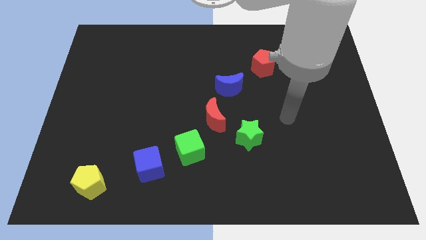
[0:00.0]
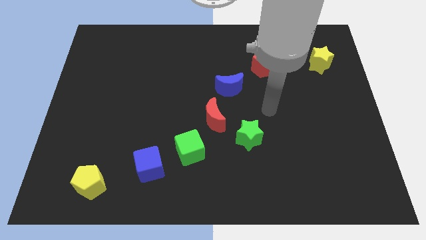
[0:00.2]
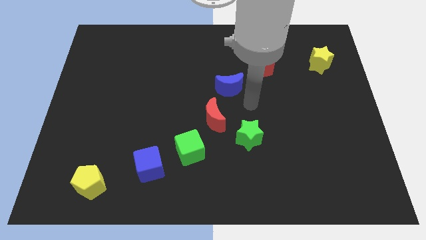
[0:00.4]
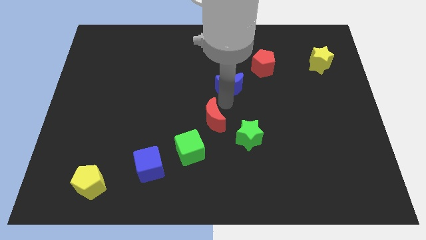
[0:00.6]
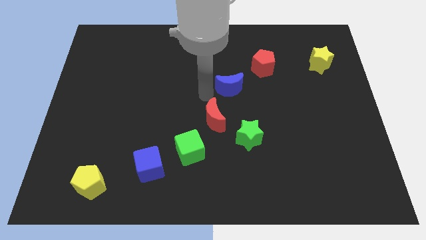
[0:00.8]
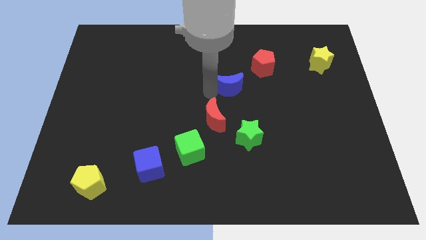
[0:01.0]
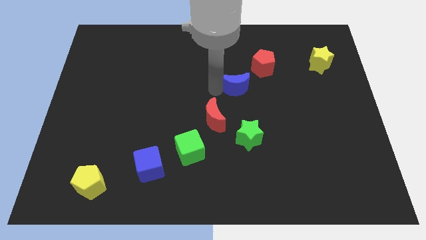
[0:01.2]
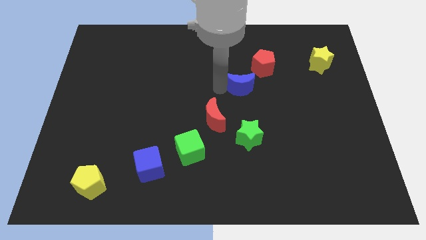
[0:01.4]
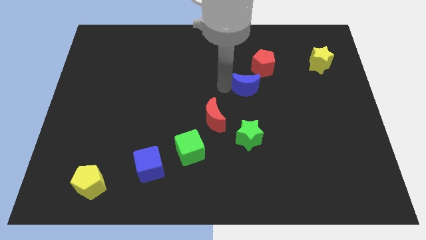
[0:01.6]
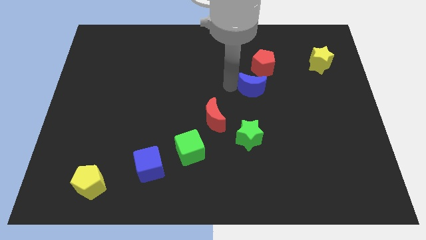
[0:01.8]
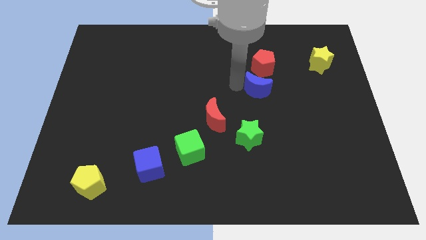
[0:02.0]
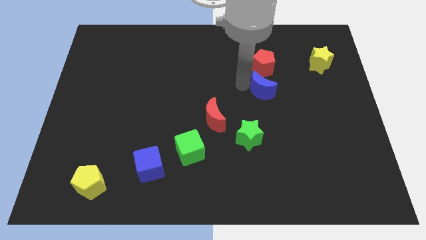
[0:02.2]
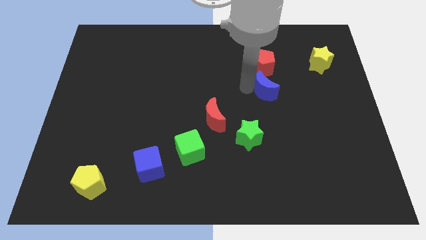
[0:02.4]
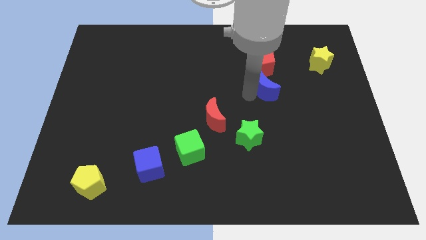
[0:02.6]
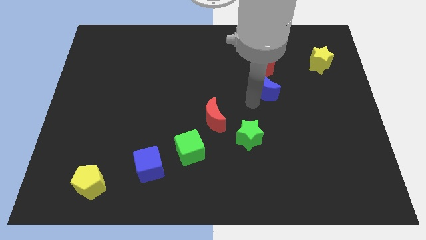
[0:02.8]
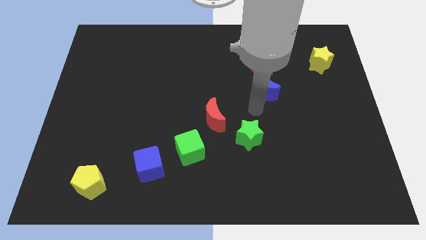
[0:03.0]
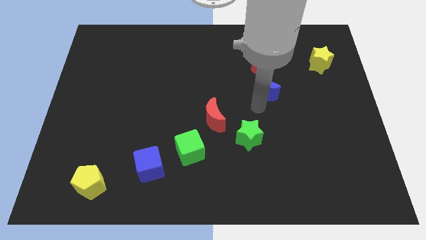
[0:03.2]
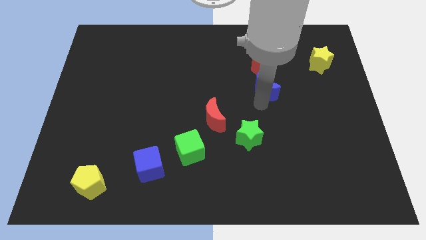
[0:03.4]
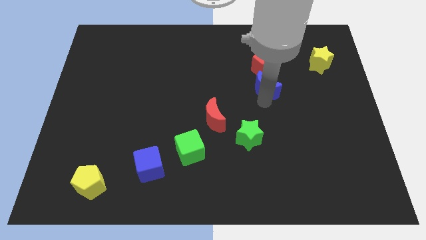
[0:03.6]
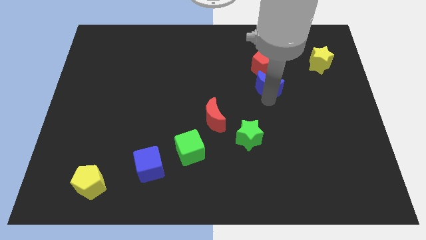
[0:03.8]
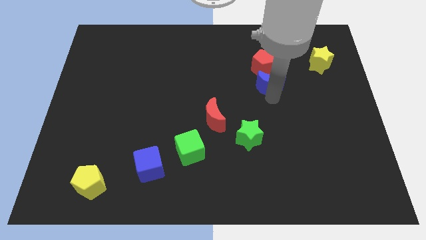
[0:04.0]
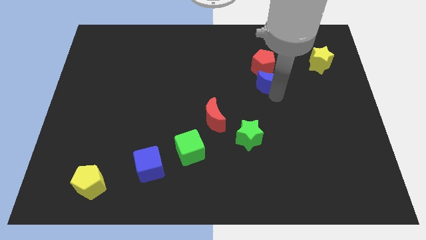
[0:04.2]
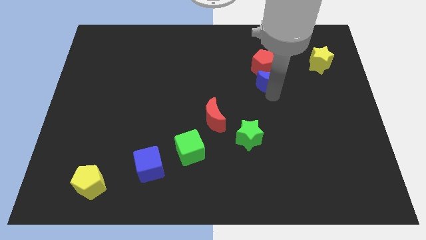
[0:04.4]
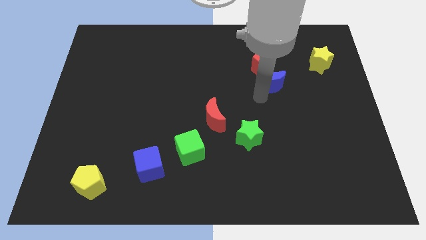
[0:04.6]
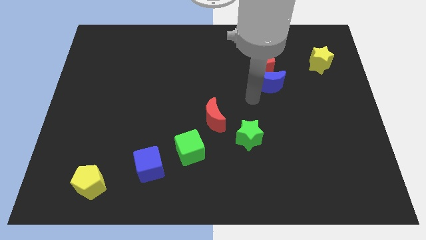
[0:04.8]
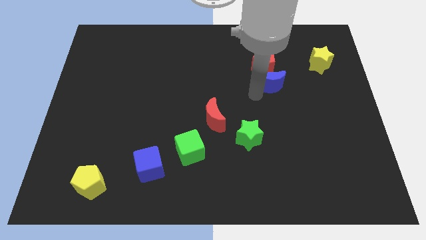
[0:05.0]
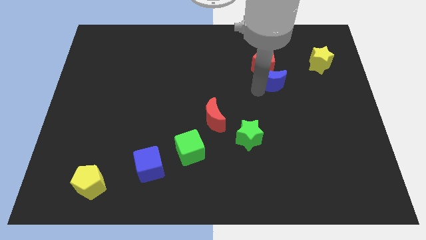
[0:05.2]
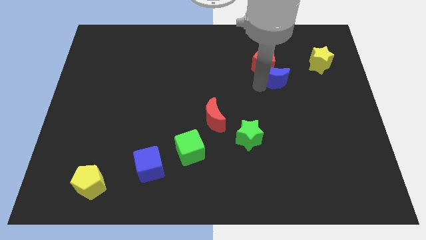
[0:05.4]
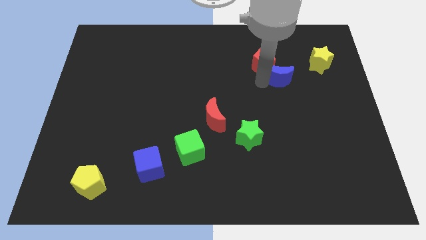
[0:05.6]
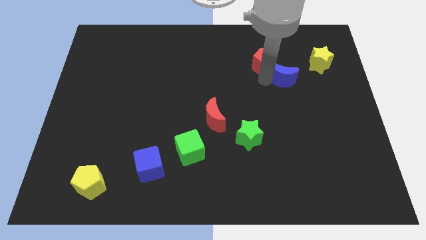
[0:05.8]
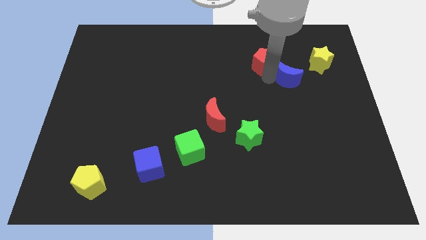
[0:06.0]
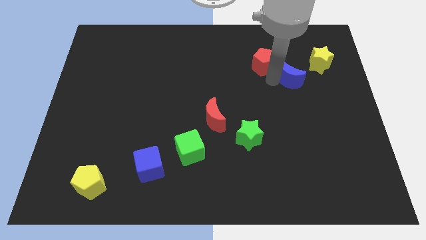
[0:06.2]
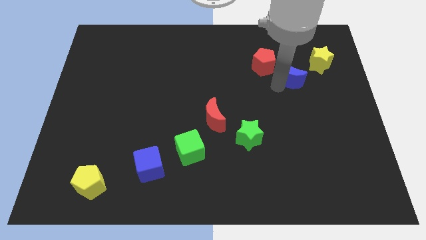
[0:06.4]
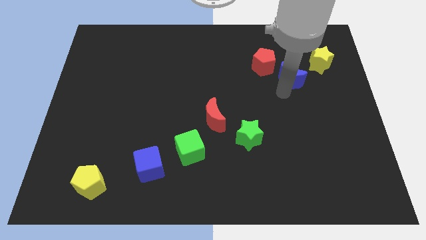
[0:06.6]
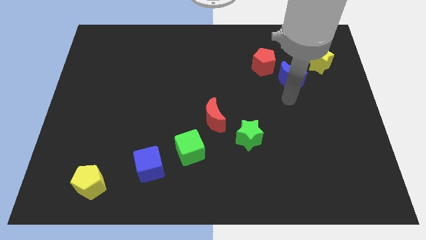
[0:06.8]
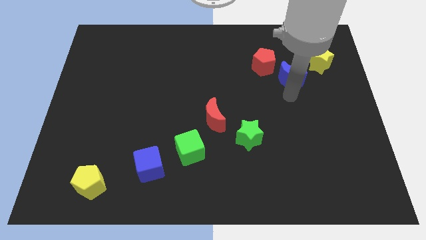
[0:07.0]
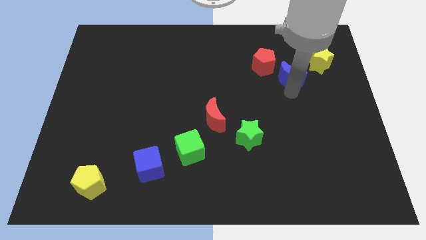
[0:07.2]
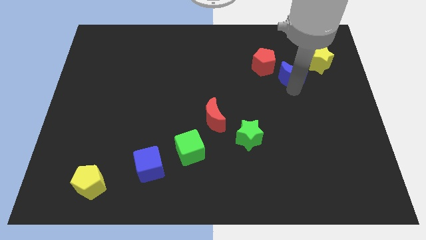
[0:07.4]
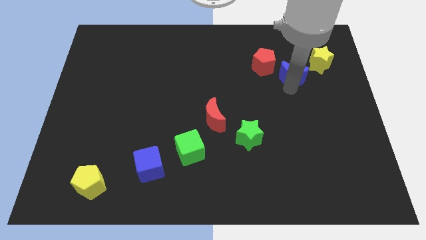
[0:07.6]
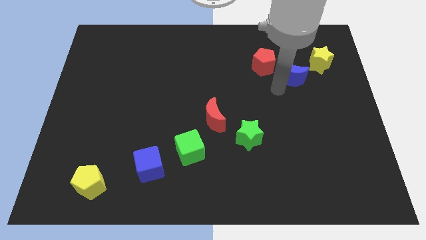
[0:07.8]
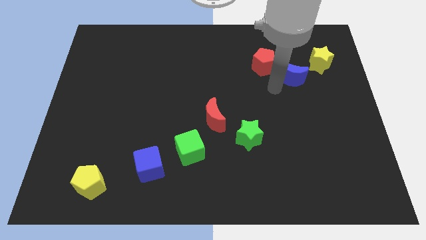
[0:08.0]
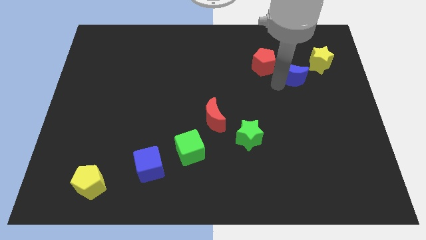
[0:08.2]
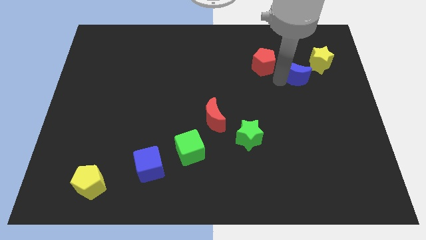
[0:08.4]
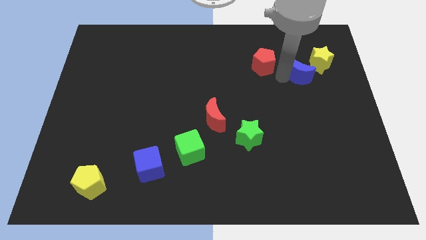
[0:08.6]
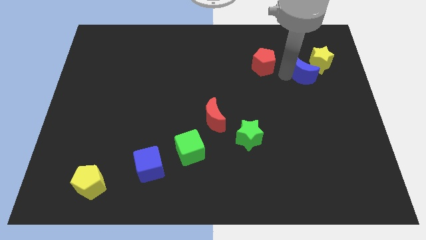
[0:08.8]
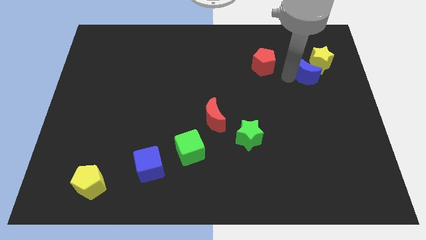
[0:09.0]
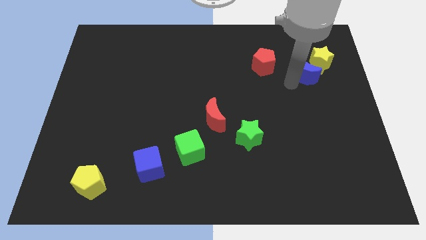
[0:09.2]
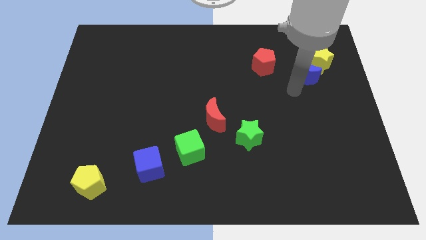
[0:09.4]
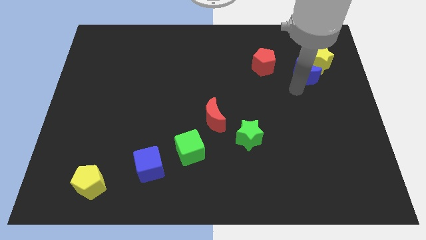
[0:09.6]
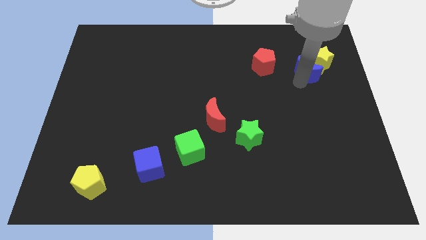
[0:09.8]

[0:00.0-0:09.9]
put the blue moon next to the yellow star

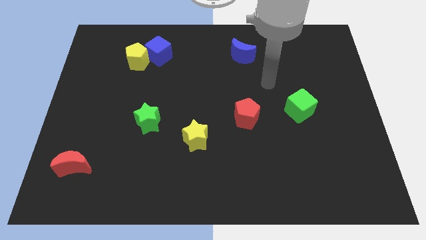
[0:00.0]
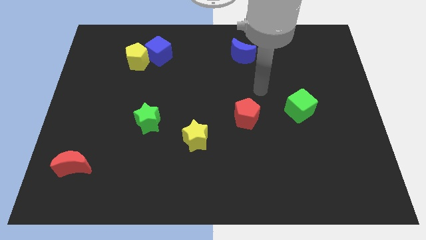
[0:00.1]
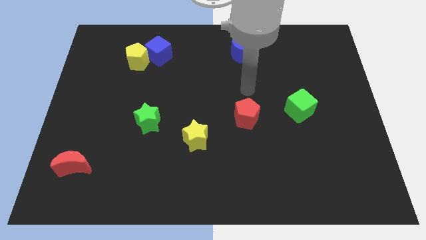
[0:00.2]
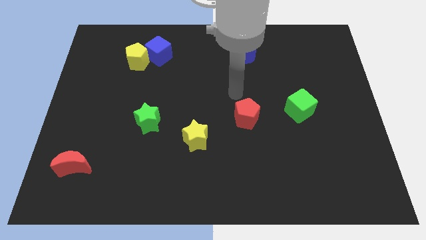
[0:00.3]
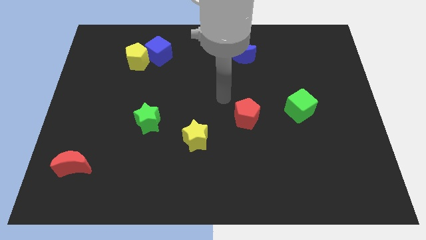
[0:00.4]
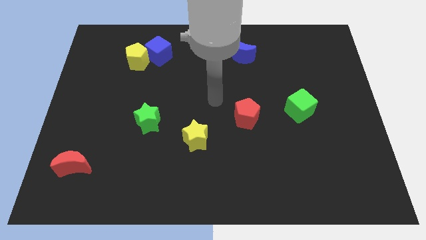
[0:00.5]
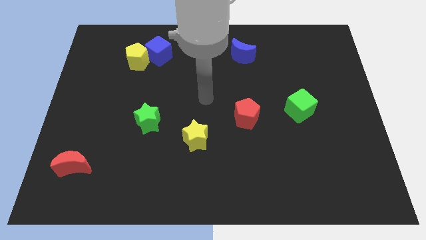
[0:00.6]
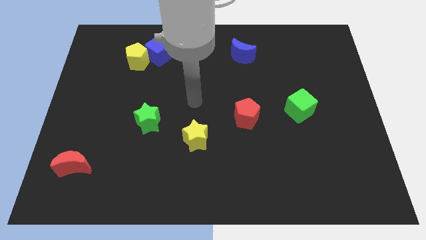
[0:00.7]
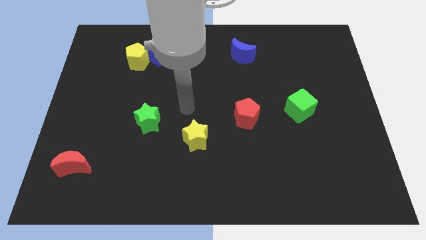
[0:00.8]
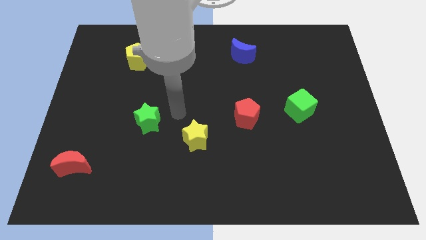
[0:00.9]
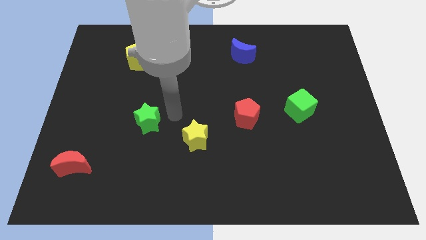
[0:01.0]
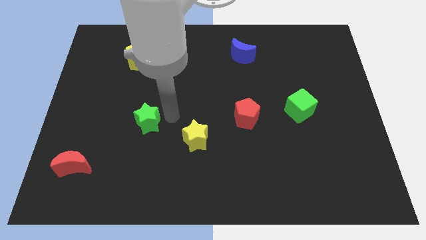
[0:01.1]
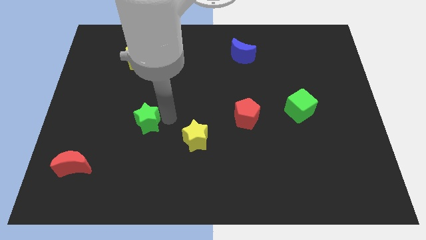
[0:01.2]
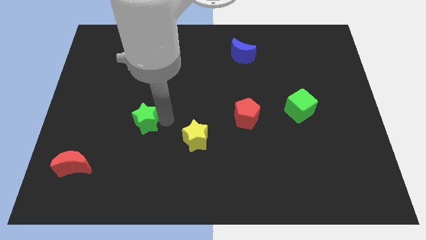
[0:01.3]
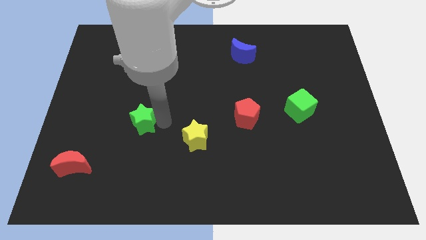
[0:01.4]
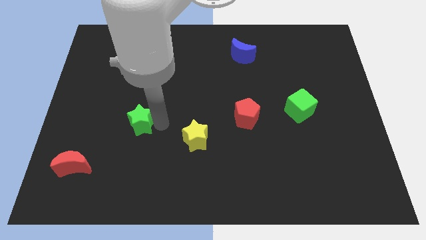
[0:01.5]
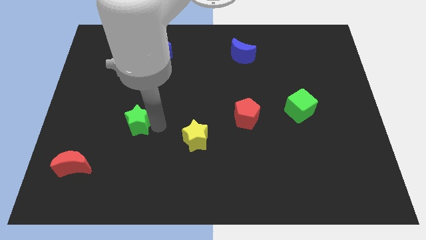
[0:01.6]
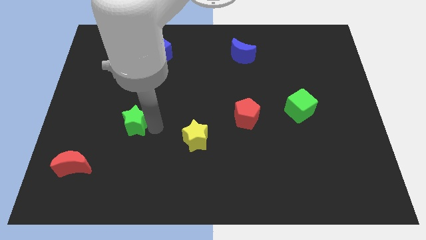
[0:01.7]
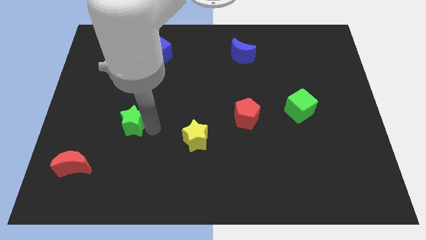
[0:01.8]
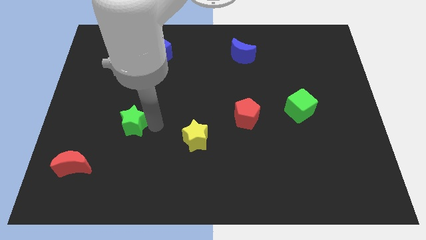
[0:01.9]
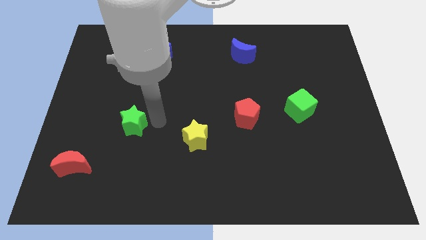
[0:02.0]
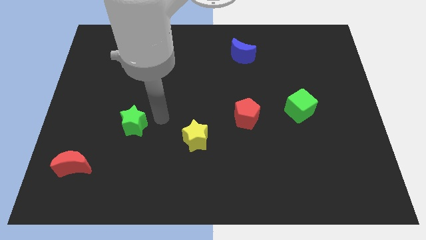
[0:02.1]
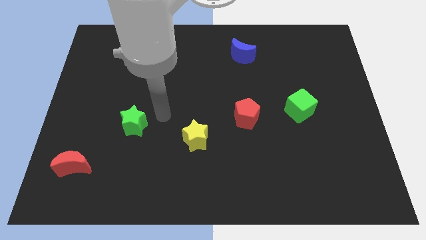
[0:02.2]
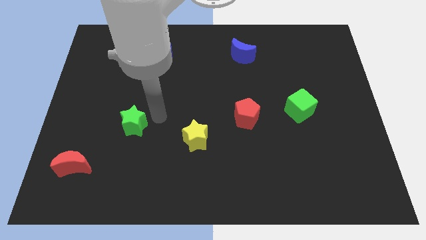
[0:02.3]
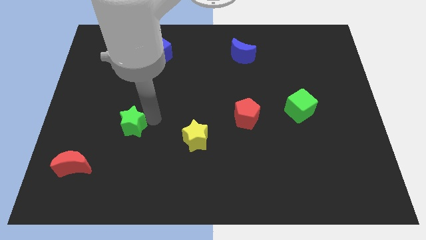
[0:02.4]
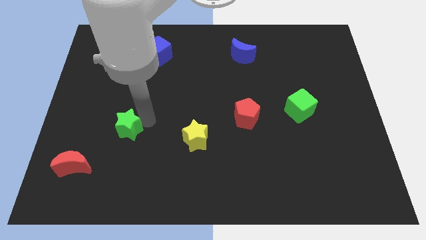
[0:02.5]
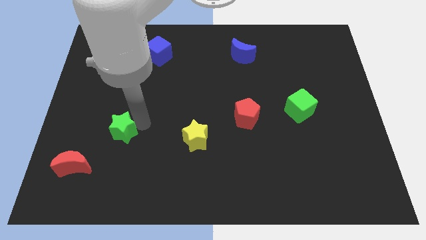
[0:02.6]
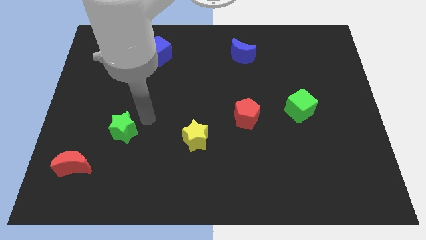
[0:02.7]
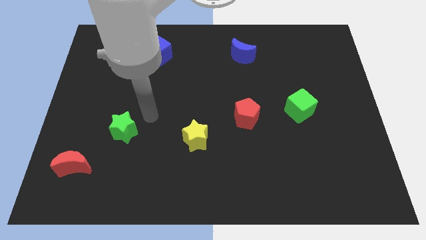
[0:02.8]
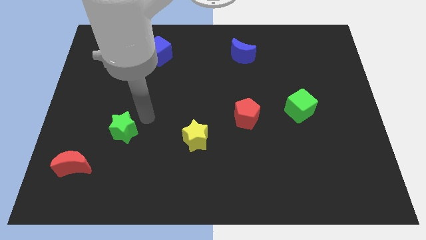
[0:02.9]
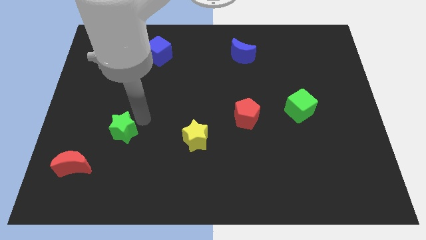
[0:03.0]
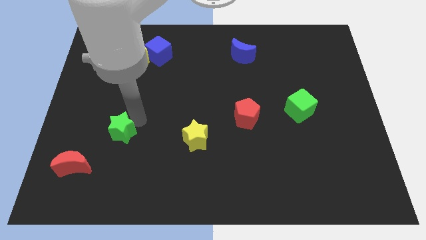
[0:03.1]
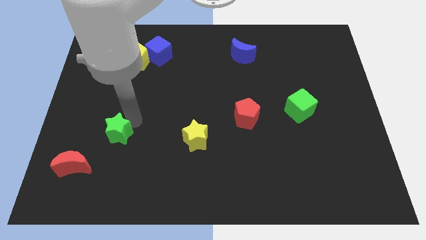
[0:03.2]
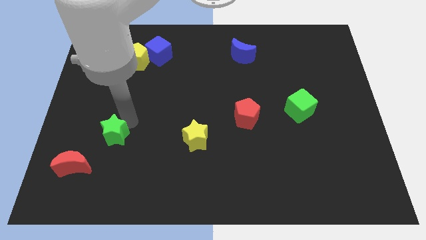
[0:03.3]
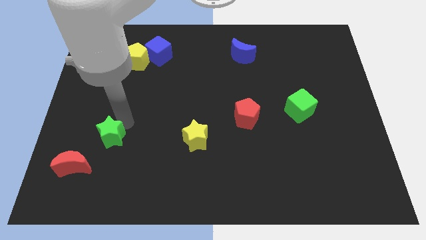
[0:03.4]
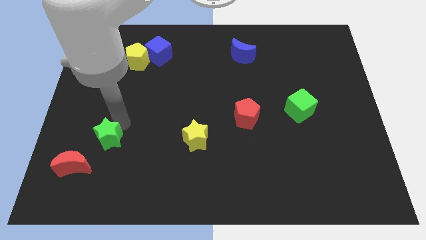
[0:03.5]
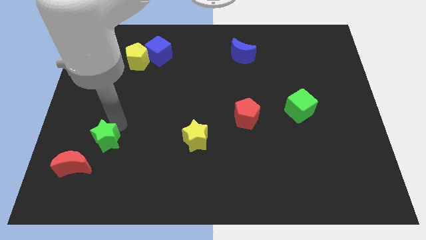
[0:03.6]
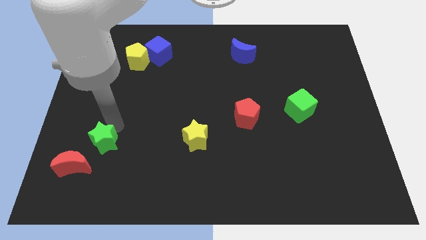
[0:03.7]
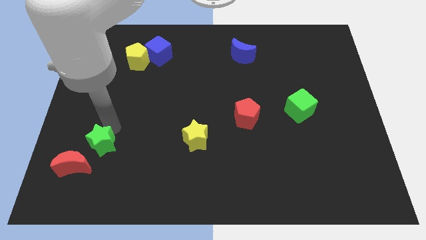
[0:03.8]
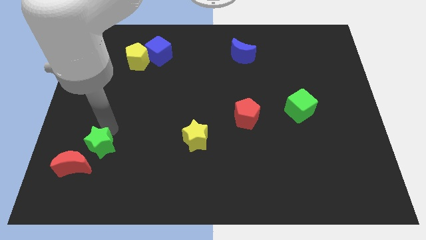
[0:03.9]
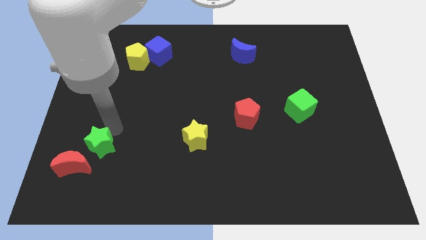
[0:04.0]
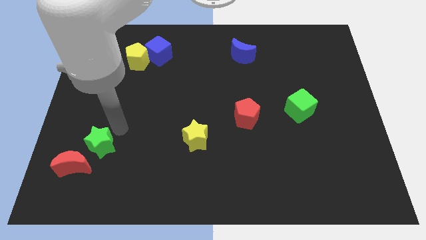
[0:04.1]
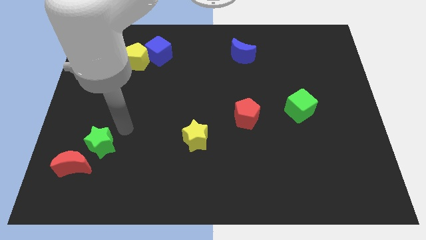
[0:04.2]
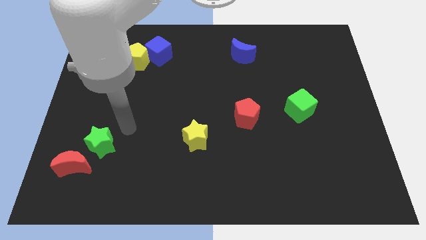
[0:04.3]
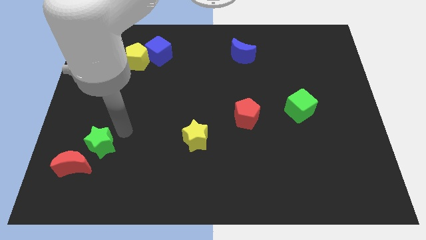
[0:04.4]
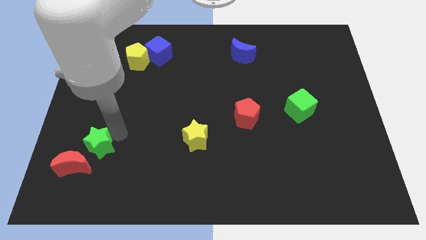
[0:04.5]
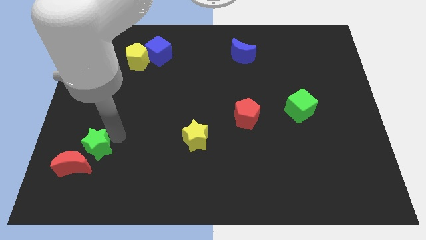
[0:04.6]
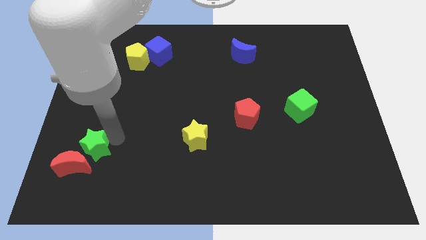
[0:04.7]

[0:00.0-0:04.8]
push the green star to the red moon
